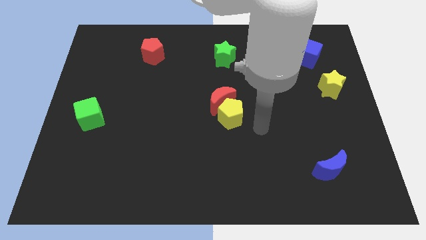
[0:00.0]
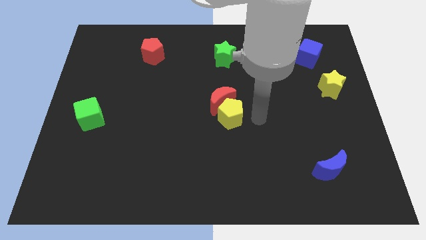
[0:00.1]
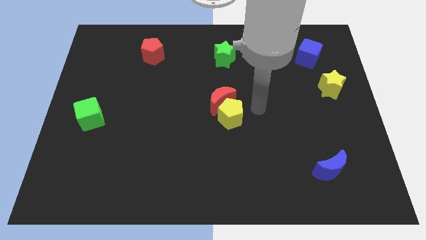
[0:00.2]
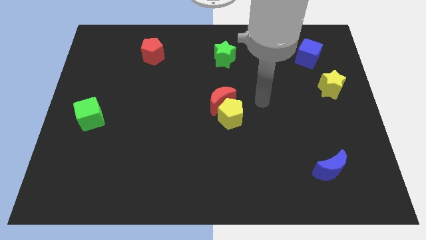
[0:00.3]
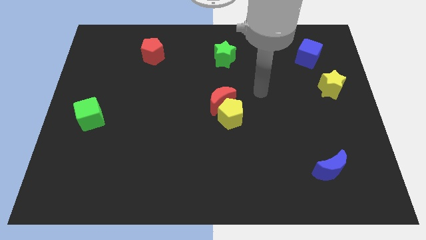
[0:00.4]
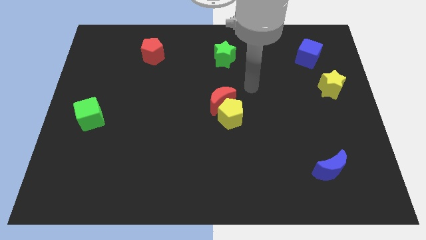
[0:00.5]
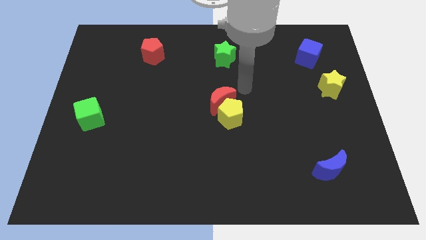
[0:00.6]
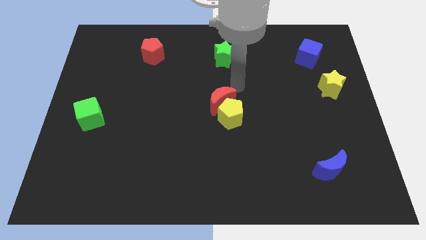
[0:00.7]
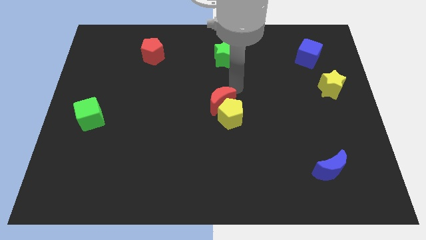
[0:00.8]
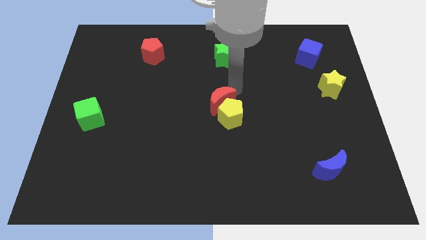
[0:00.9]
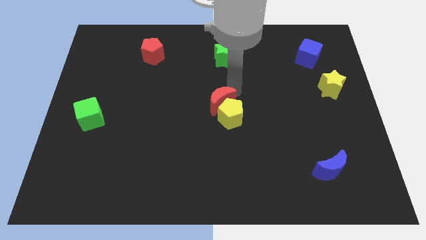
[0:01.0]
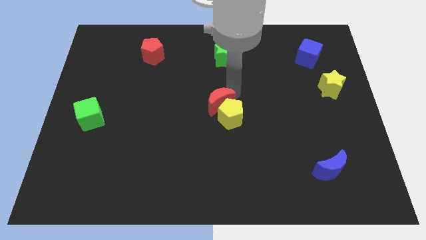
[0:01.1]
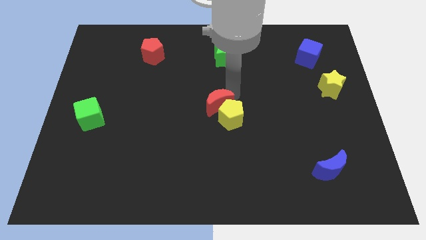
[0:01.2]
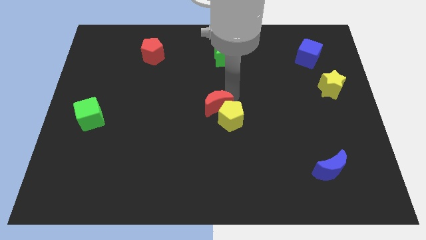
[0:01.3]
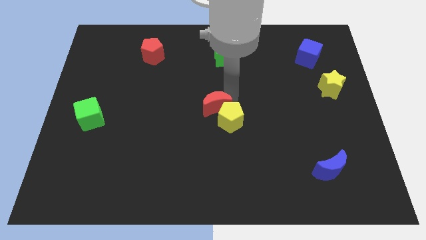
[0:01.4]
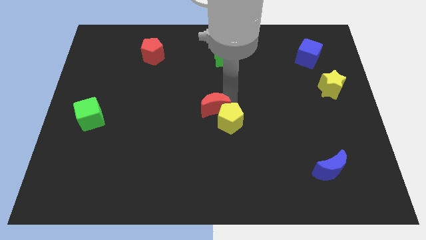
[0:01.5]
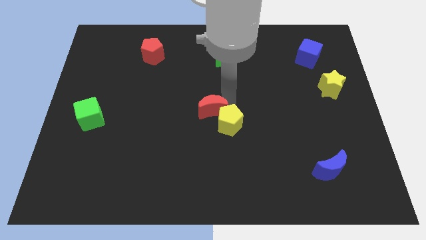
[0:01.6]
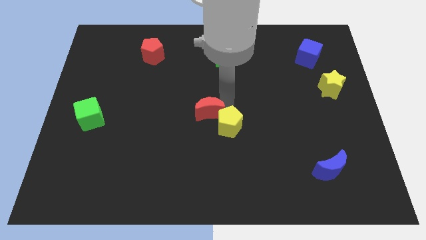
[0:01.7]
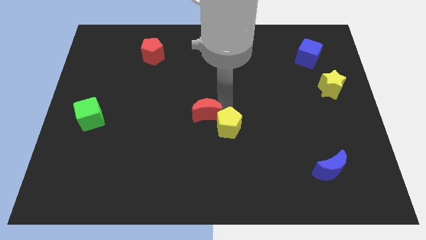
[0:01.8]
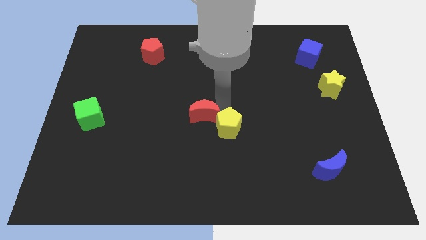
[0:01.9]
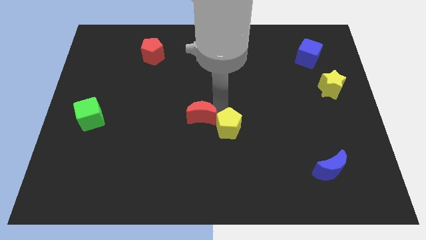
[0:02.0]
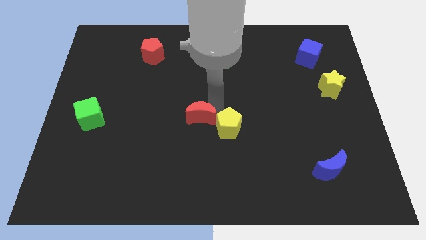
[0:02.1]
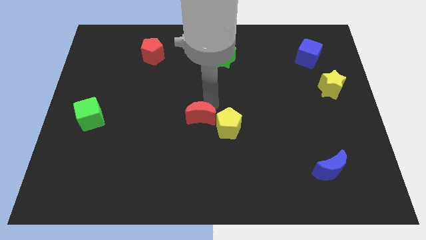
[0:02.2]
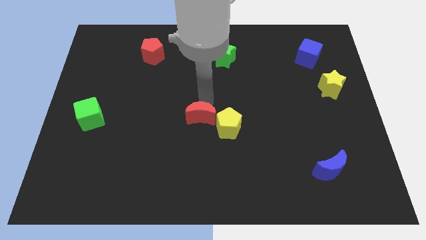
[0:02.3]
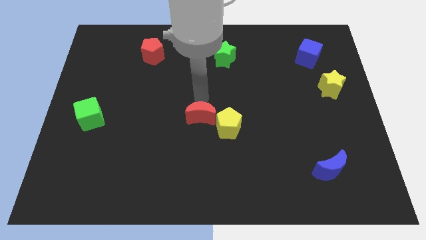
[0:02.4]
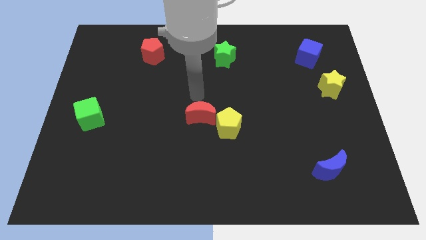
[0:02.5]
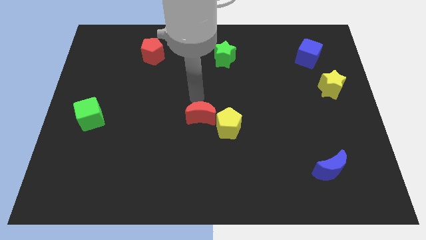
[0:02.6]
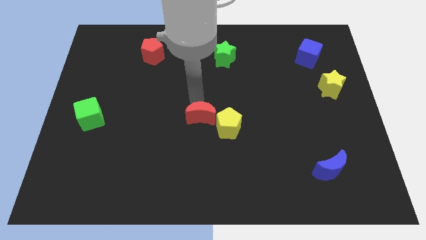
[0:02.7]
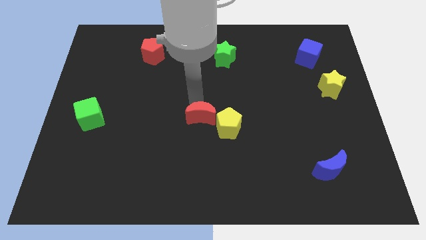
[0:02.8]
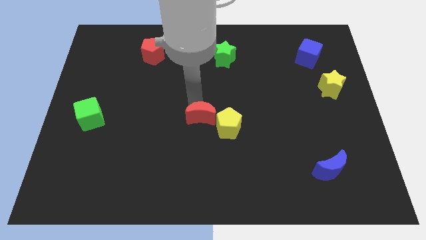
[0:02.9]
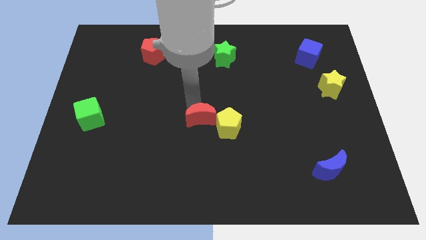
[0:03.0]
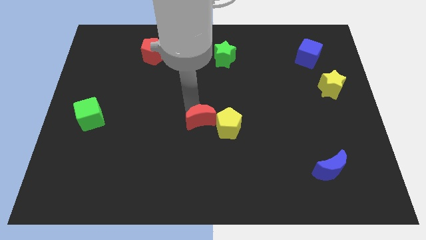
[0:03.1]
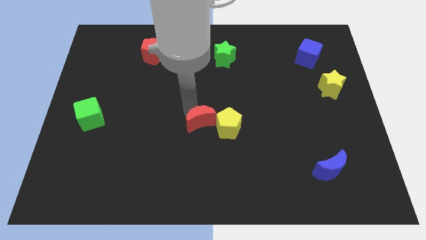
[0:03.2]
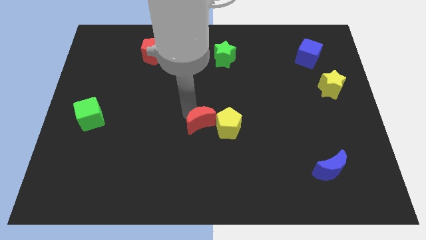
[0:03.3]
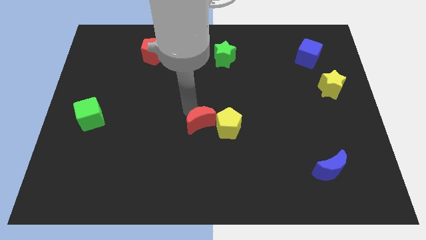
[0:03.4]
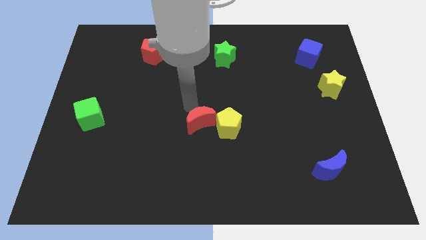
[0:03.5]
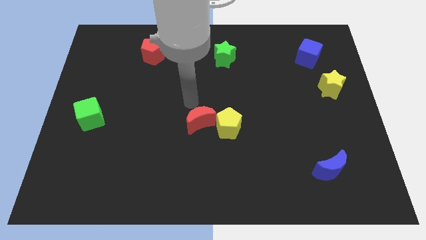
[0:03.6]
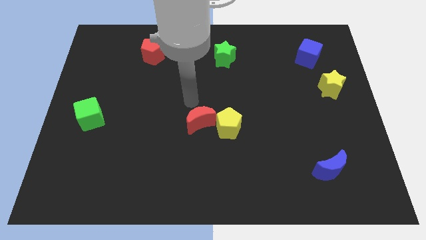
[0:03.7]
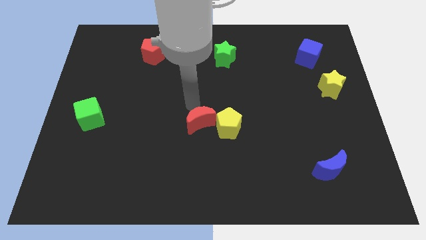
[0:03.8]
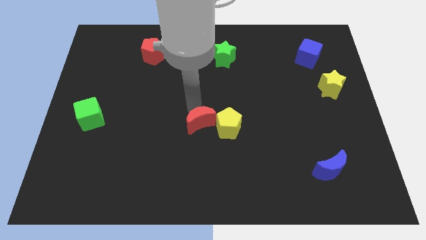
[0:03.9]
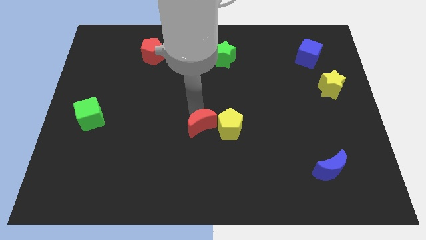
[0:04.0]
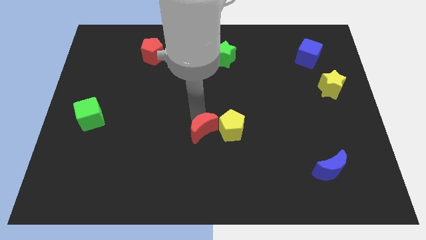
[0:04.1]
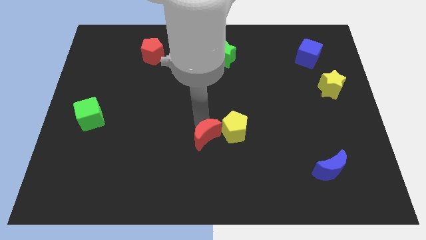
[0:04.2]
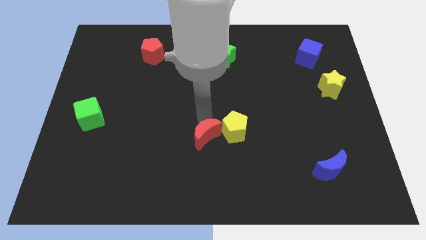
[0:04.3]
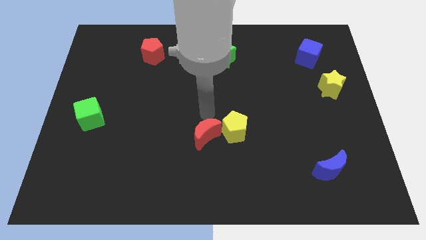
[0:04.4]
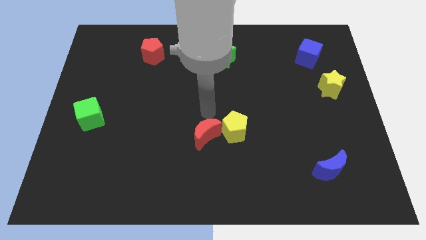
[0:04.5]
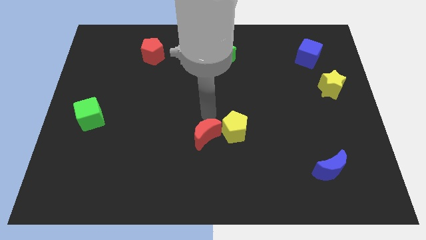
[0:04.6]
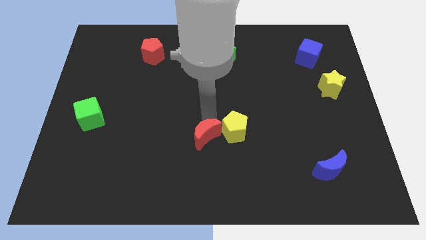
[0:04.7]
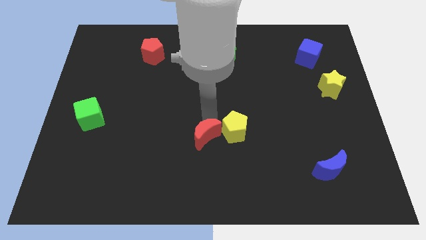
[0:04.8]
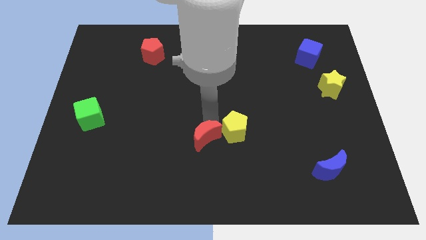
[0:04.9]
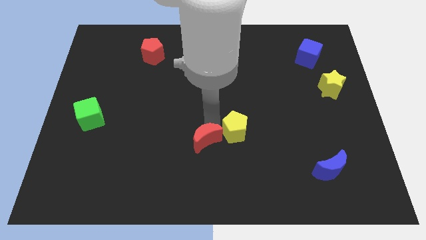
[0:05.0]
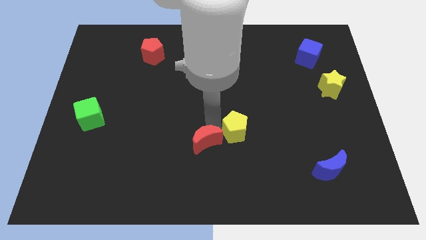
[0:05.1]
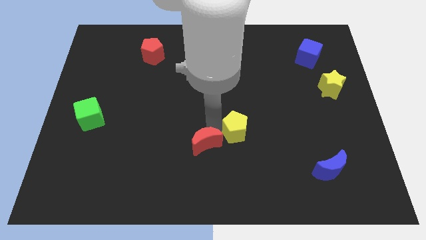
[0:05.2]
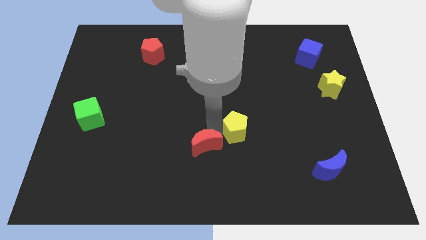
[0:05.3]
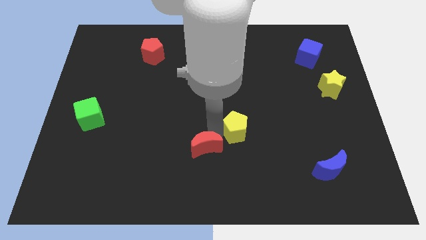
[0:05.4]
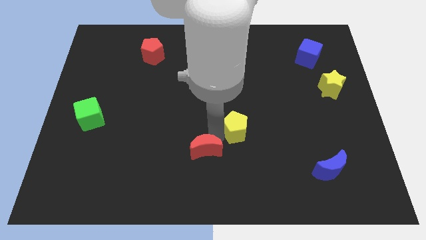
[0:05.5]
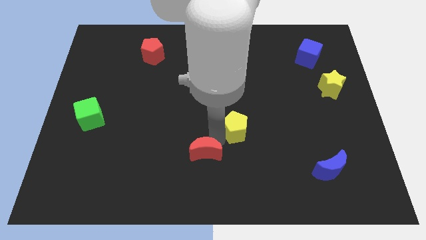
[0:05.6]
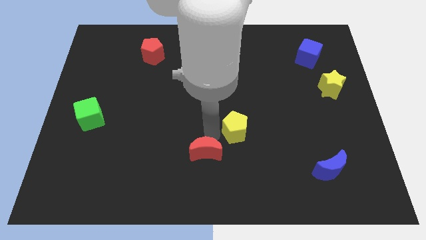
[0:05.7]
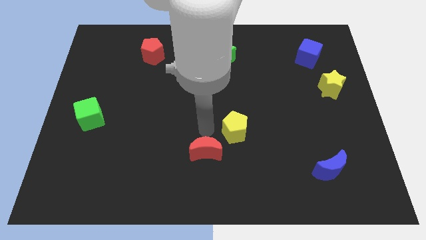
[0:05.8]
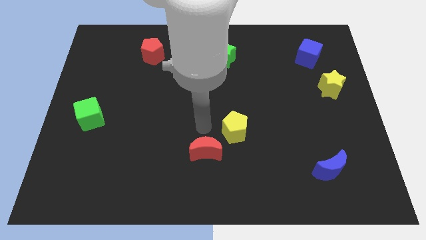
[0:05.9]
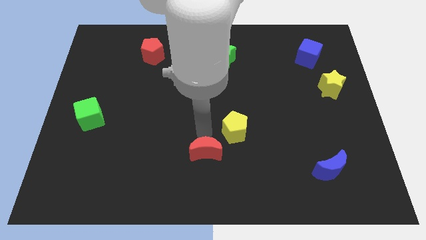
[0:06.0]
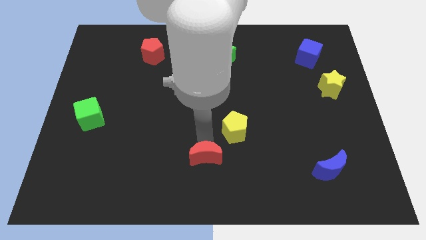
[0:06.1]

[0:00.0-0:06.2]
push the red moon to the bottom side

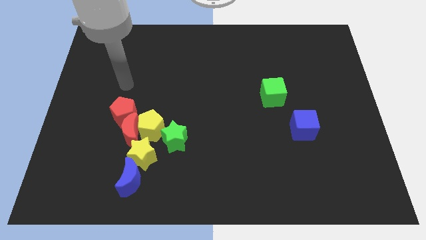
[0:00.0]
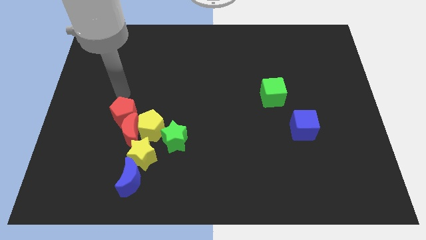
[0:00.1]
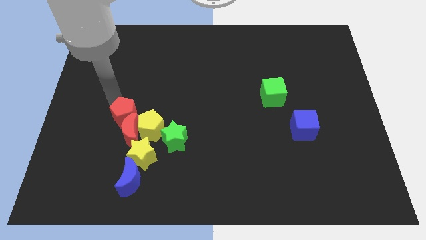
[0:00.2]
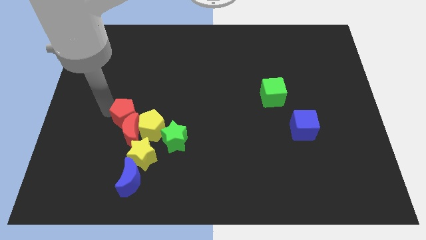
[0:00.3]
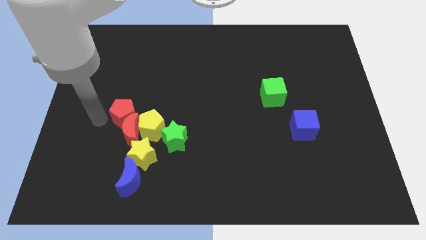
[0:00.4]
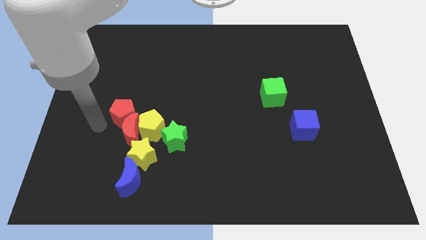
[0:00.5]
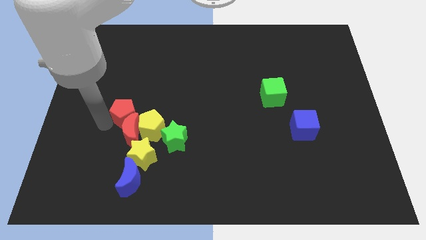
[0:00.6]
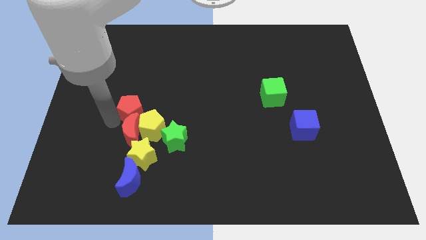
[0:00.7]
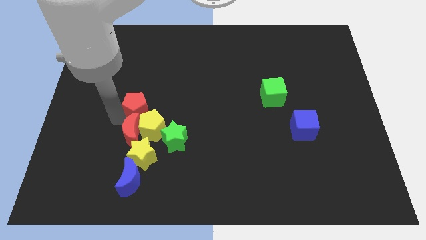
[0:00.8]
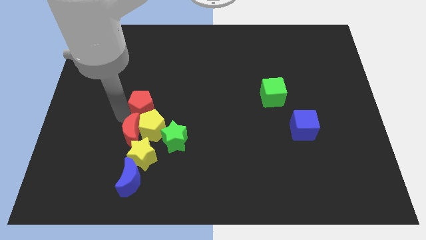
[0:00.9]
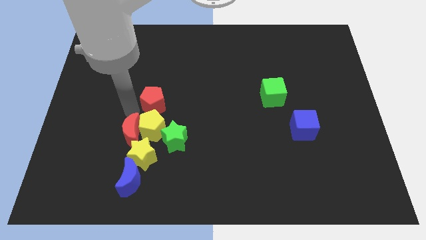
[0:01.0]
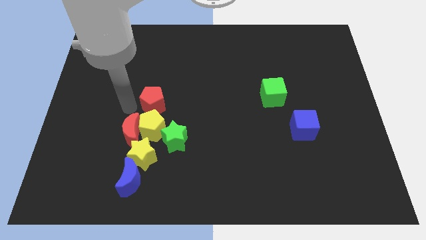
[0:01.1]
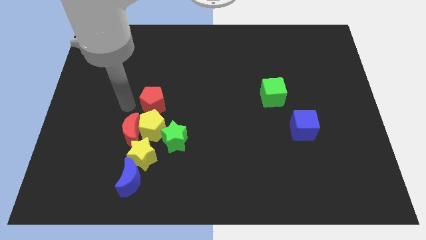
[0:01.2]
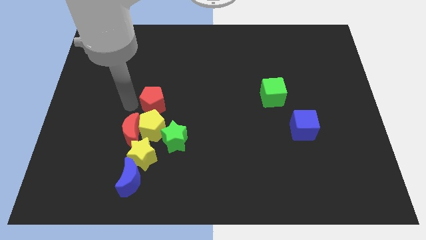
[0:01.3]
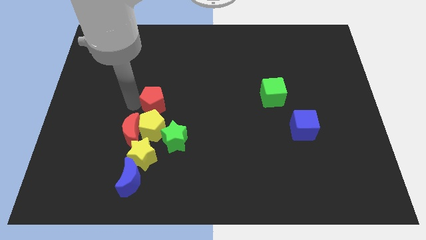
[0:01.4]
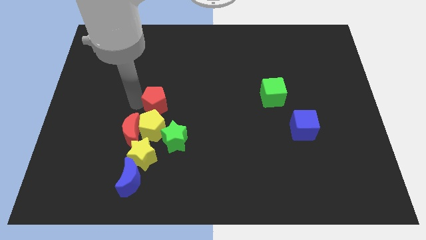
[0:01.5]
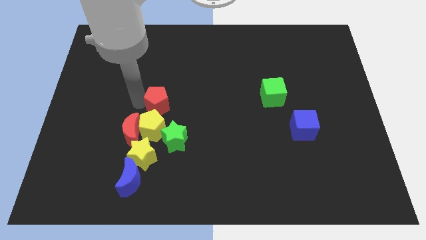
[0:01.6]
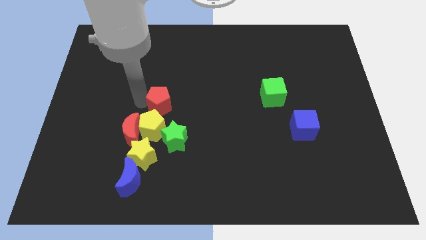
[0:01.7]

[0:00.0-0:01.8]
push the red pentagon to the center
